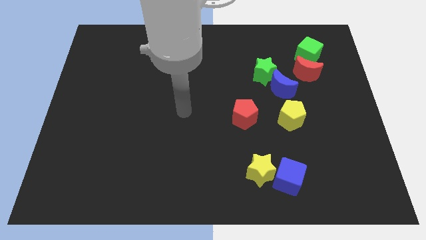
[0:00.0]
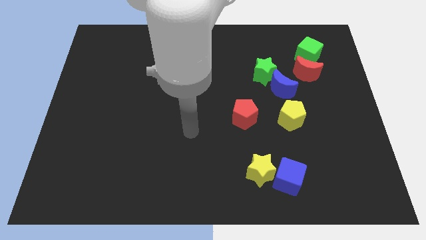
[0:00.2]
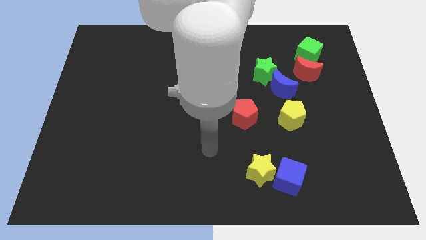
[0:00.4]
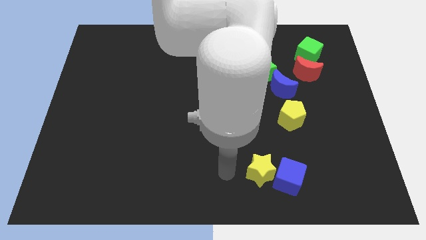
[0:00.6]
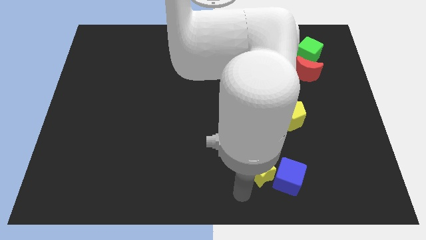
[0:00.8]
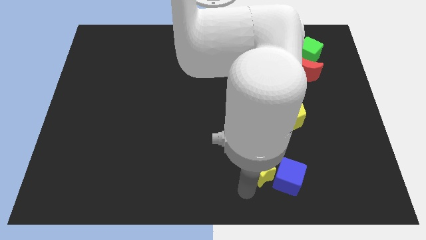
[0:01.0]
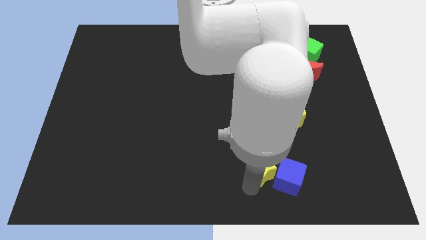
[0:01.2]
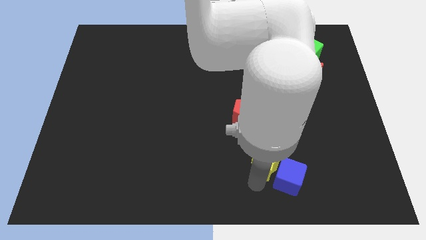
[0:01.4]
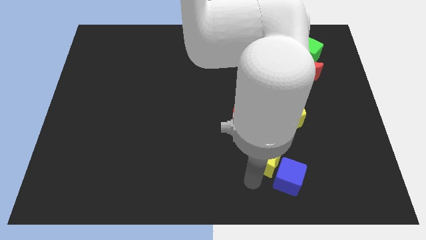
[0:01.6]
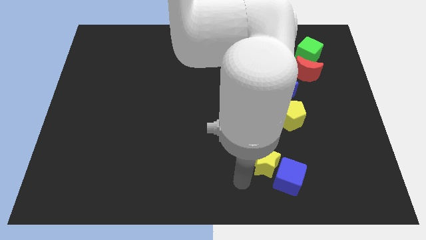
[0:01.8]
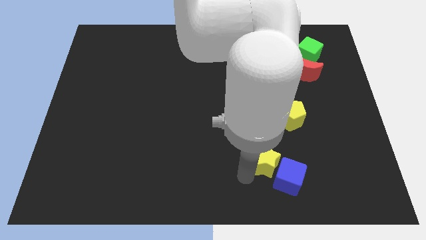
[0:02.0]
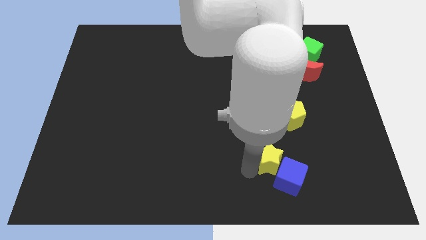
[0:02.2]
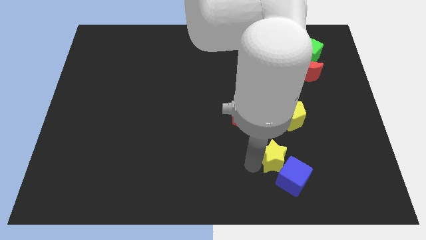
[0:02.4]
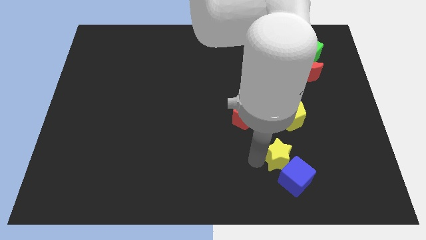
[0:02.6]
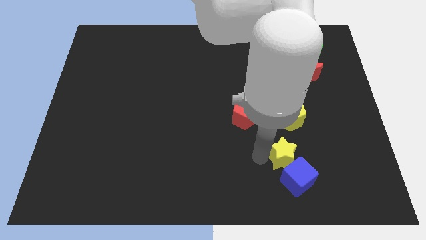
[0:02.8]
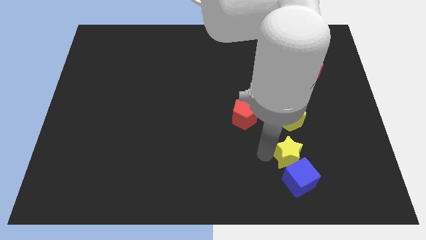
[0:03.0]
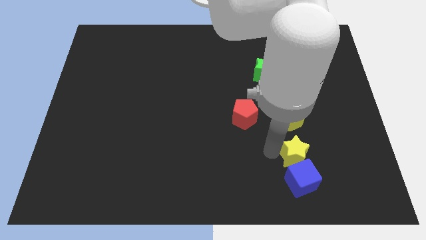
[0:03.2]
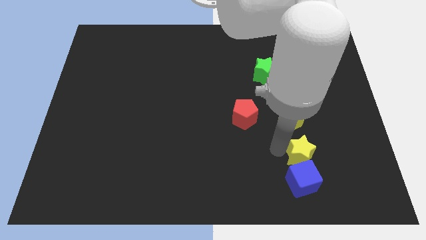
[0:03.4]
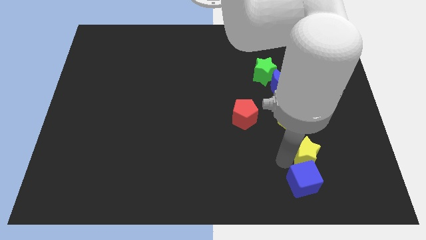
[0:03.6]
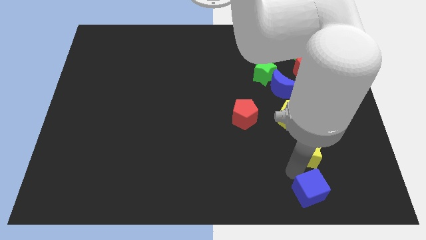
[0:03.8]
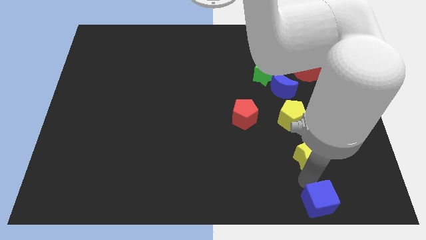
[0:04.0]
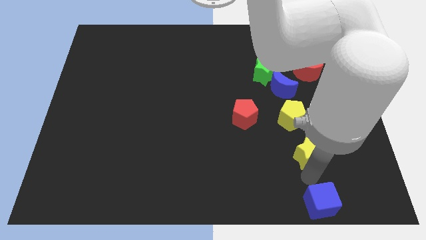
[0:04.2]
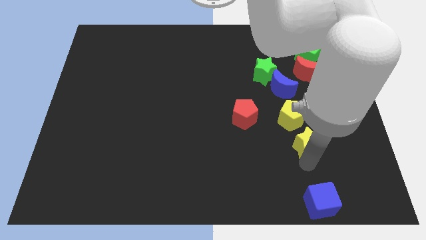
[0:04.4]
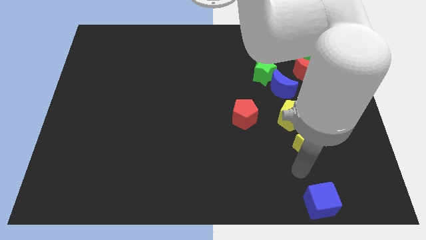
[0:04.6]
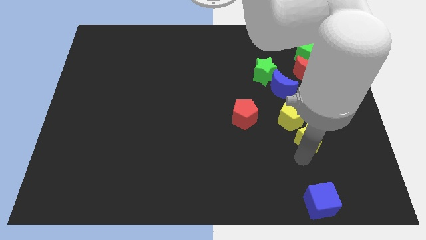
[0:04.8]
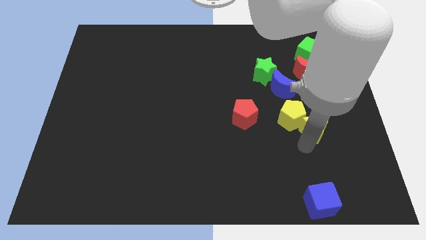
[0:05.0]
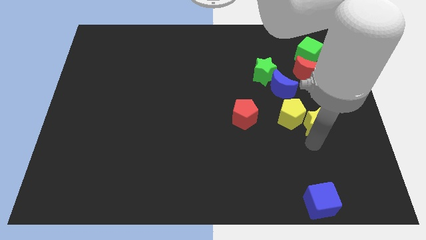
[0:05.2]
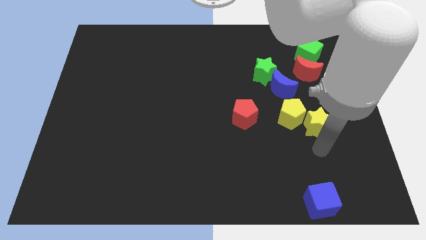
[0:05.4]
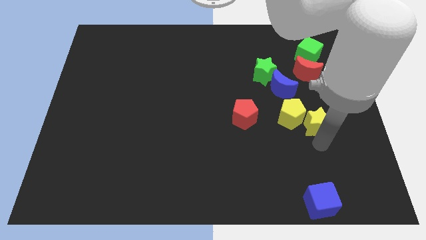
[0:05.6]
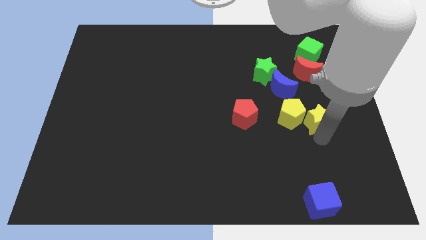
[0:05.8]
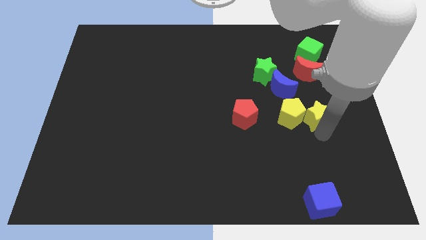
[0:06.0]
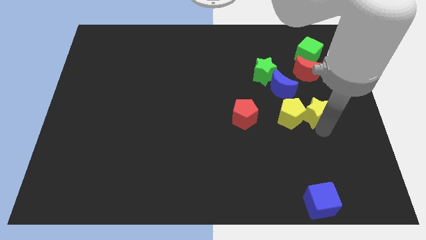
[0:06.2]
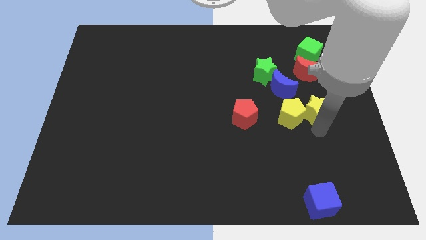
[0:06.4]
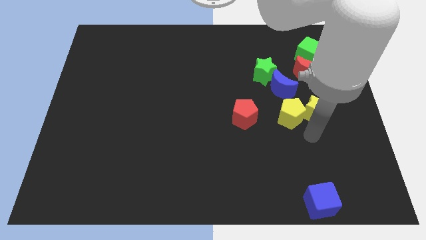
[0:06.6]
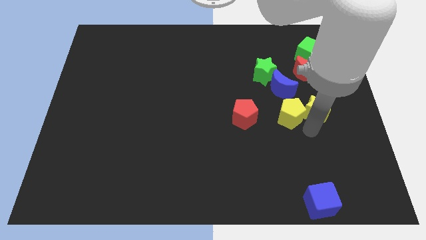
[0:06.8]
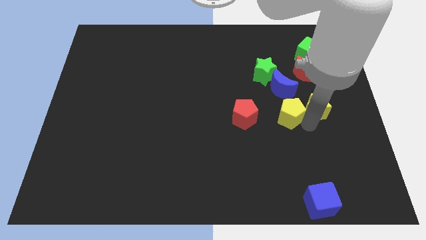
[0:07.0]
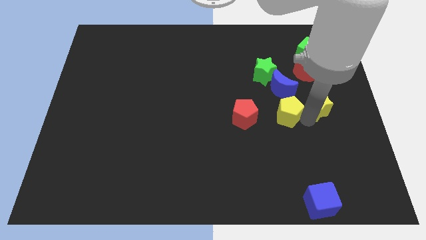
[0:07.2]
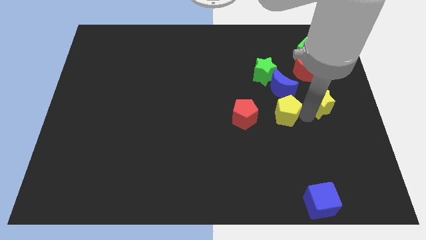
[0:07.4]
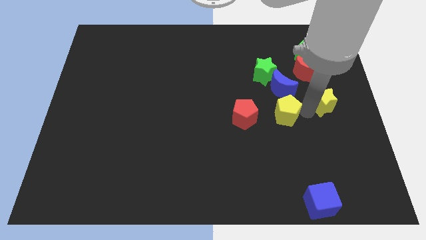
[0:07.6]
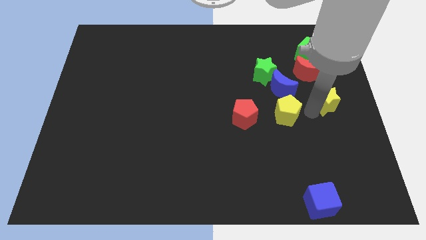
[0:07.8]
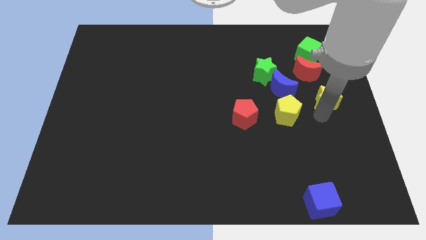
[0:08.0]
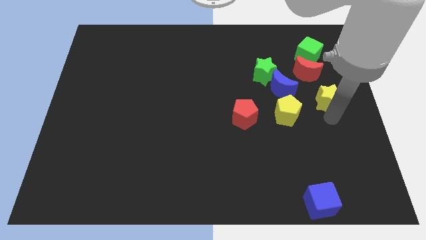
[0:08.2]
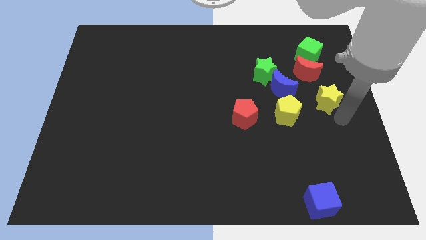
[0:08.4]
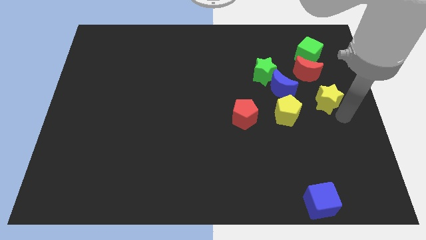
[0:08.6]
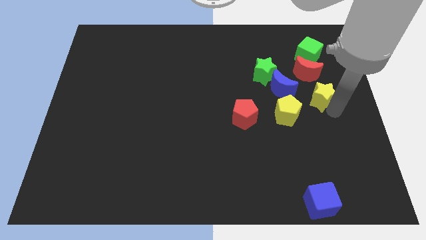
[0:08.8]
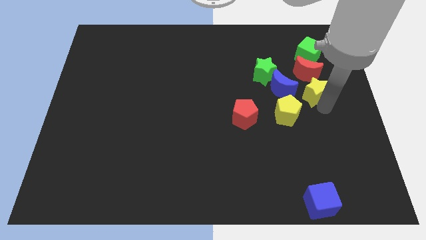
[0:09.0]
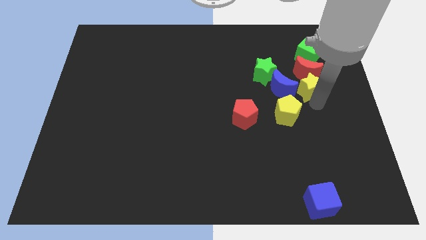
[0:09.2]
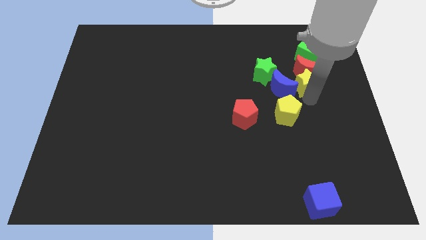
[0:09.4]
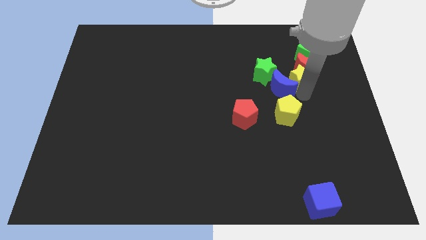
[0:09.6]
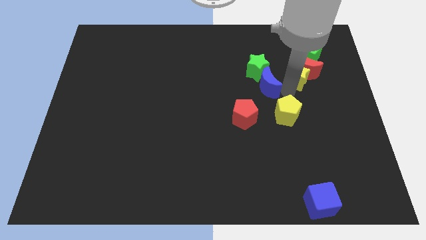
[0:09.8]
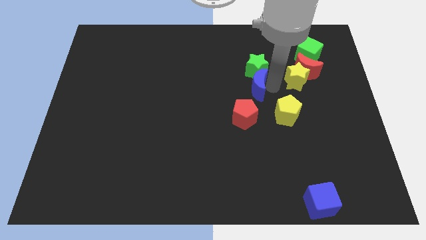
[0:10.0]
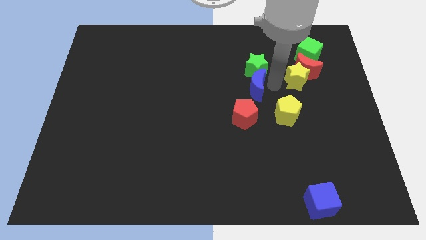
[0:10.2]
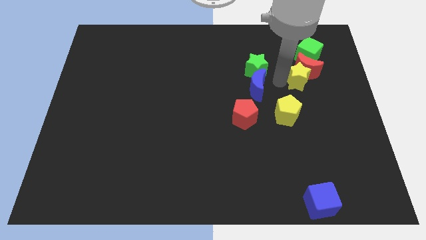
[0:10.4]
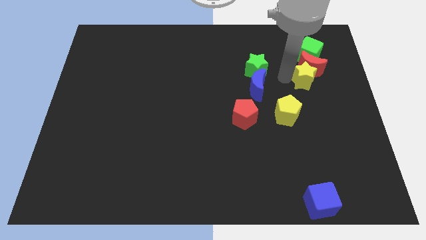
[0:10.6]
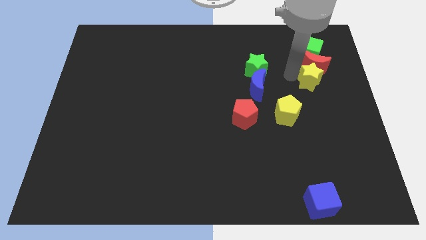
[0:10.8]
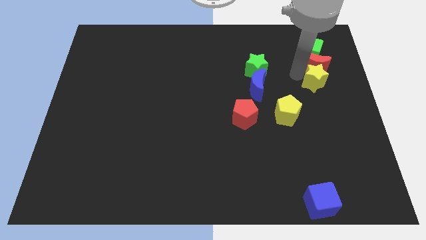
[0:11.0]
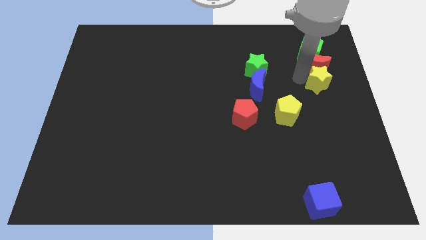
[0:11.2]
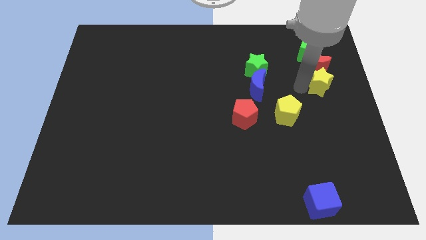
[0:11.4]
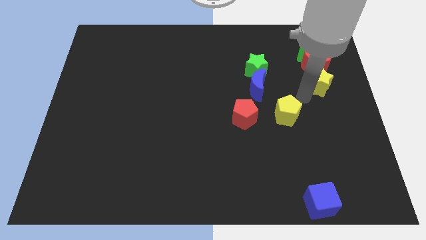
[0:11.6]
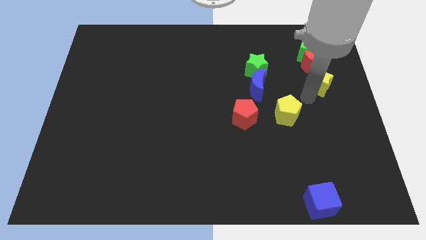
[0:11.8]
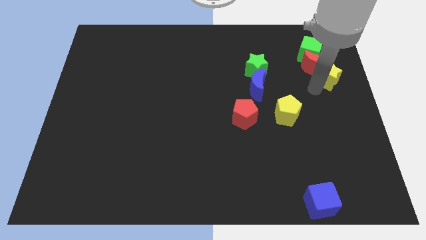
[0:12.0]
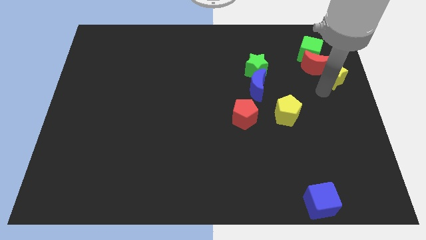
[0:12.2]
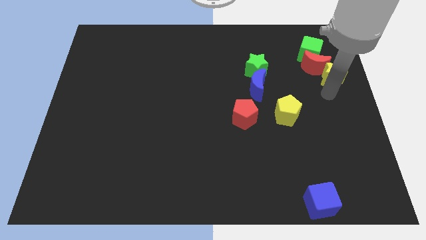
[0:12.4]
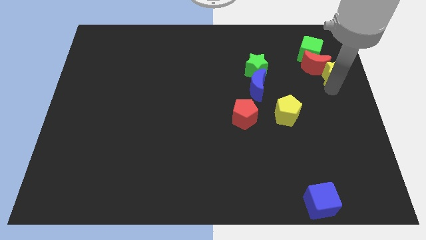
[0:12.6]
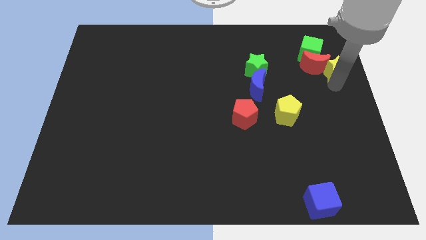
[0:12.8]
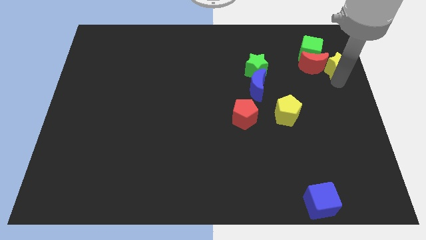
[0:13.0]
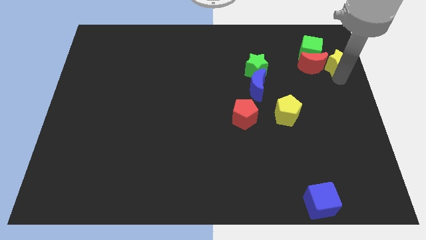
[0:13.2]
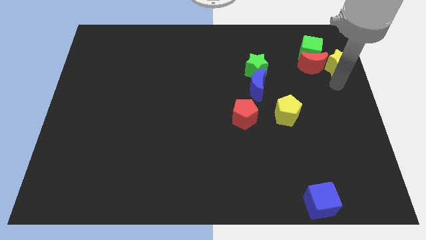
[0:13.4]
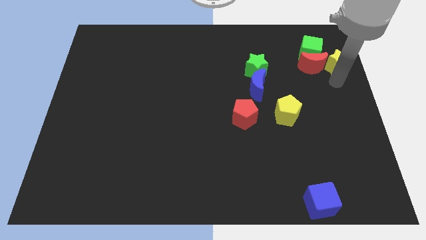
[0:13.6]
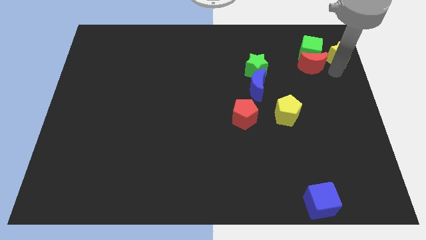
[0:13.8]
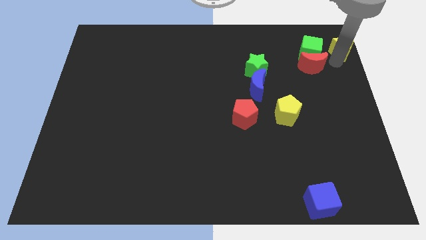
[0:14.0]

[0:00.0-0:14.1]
move the yellow star to the upper right corner
